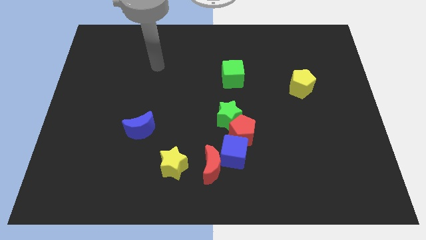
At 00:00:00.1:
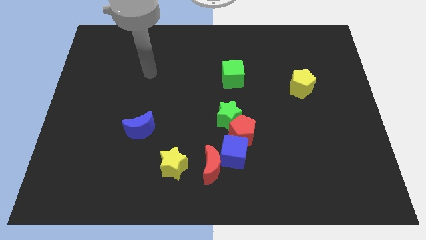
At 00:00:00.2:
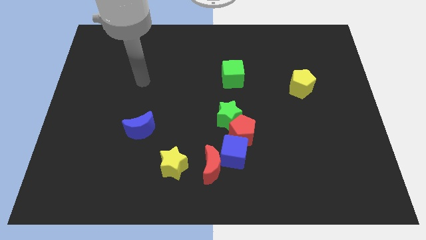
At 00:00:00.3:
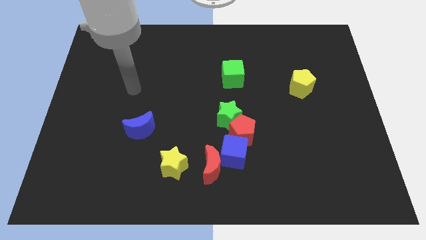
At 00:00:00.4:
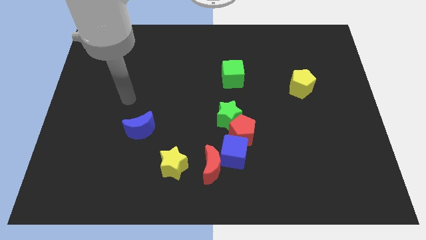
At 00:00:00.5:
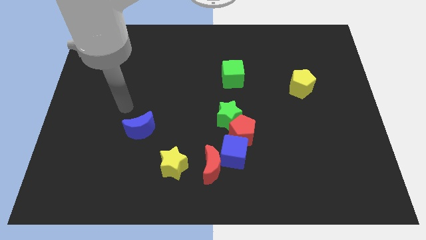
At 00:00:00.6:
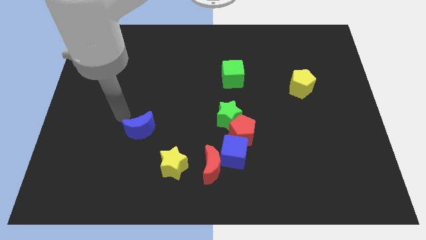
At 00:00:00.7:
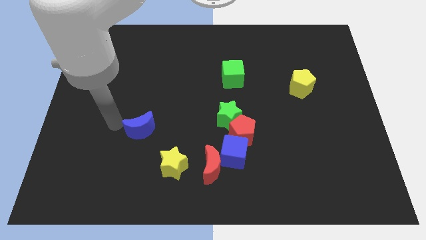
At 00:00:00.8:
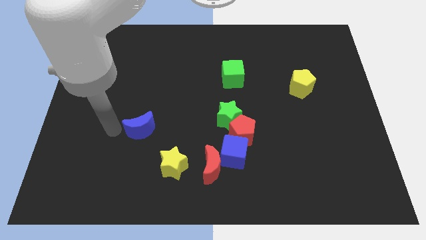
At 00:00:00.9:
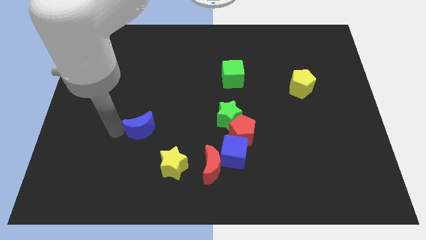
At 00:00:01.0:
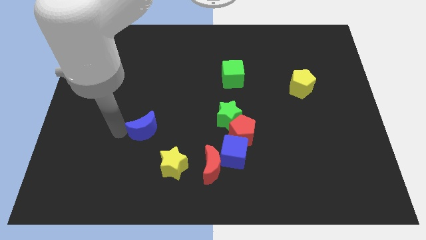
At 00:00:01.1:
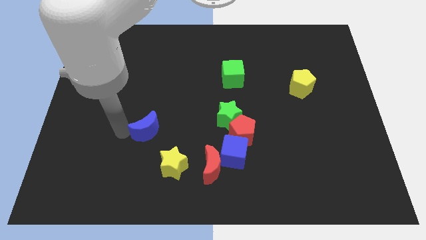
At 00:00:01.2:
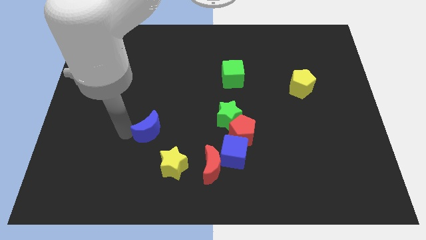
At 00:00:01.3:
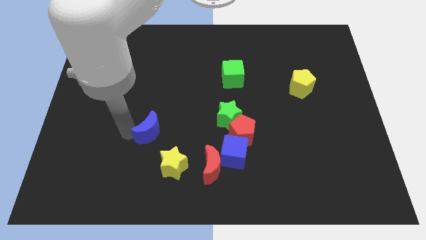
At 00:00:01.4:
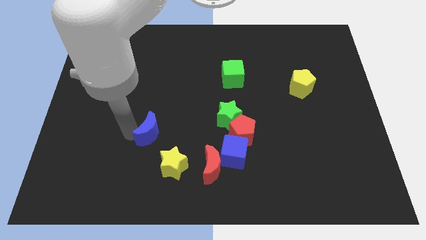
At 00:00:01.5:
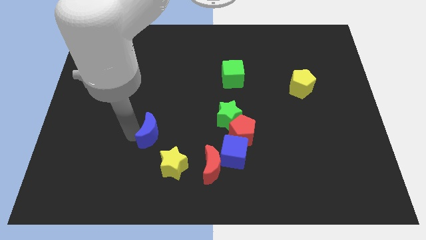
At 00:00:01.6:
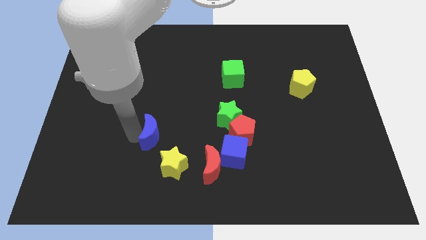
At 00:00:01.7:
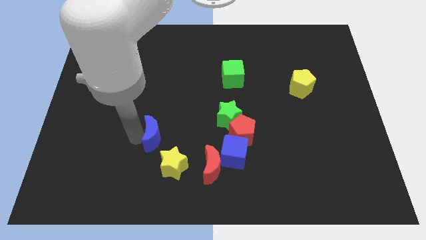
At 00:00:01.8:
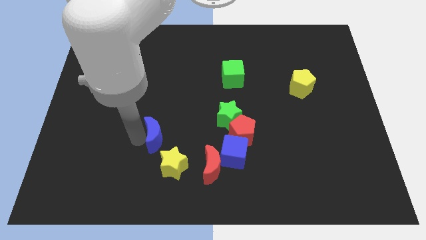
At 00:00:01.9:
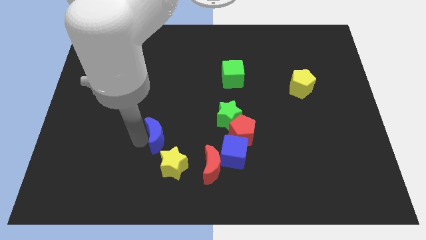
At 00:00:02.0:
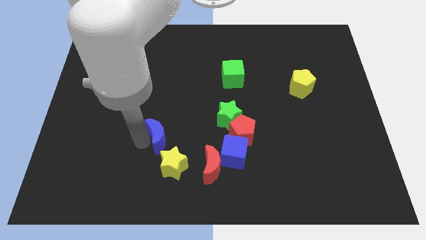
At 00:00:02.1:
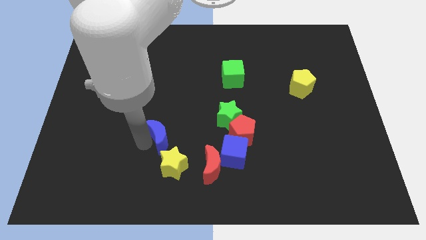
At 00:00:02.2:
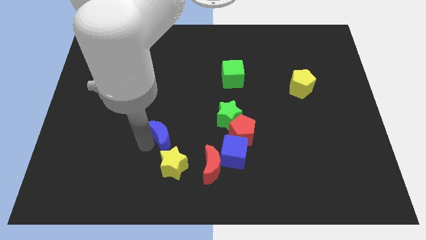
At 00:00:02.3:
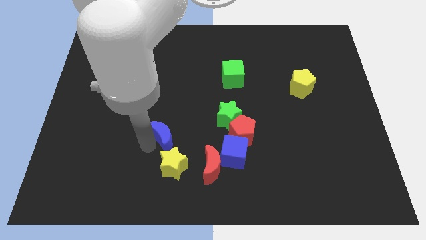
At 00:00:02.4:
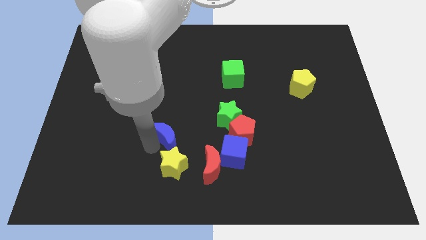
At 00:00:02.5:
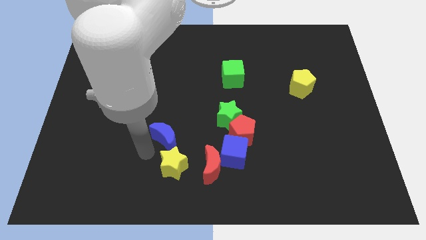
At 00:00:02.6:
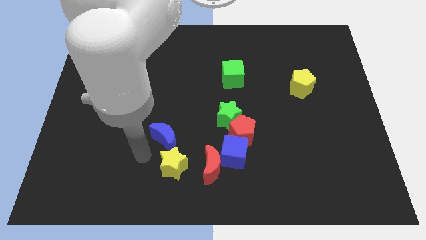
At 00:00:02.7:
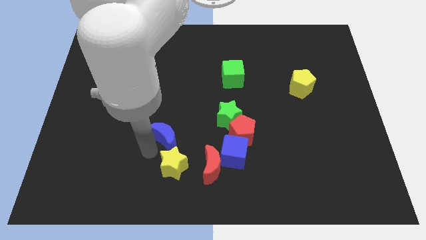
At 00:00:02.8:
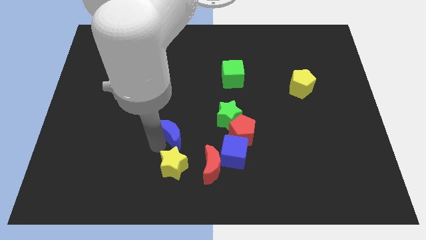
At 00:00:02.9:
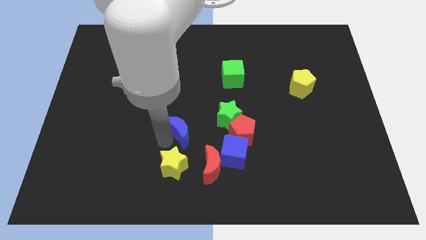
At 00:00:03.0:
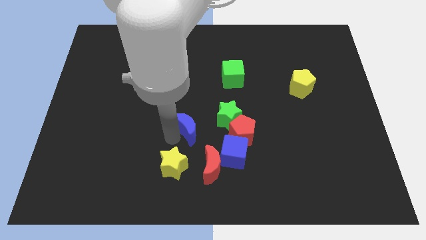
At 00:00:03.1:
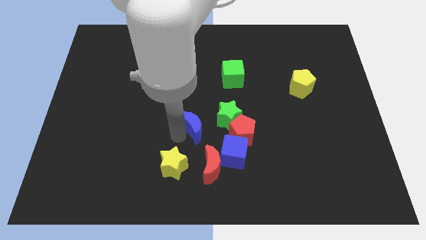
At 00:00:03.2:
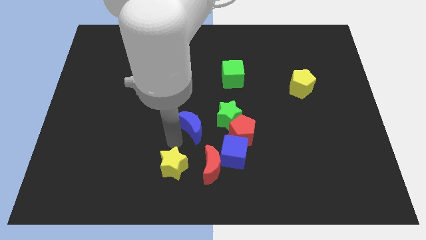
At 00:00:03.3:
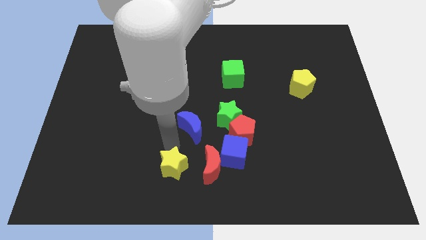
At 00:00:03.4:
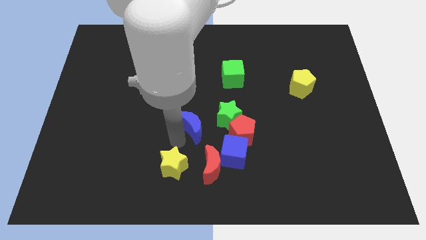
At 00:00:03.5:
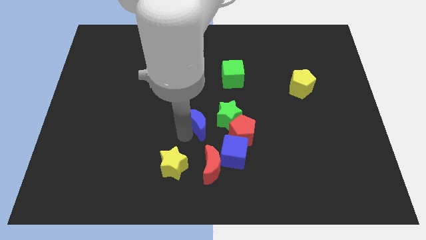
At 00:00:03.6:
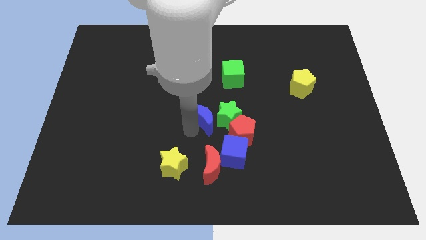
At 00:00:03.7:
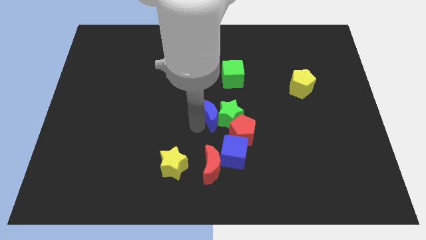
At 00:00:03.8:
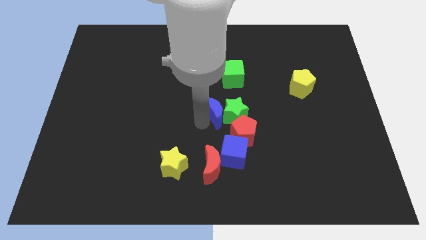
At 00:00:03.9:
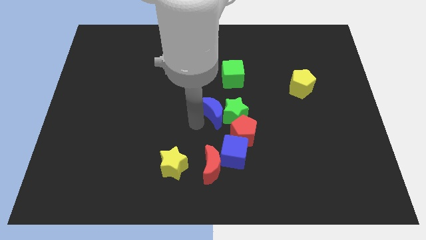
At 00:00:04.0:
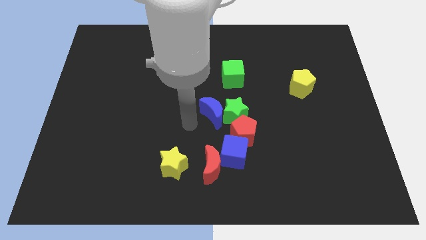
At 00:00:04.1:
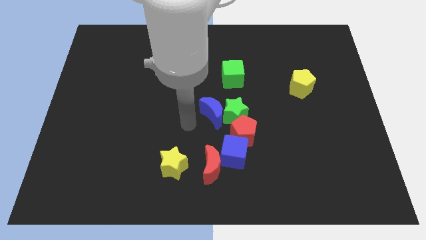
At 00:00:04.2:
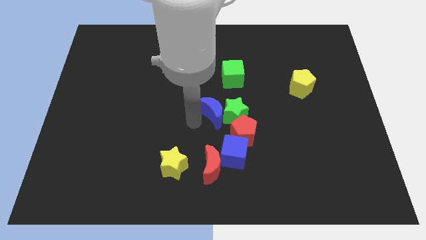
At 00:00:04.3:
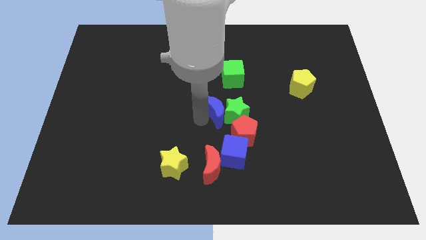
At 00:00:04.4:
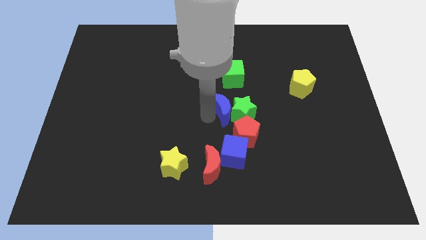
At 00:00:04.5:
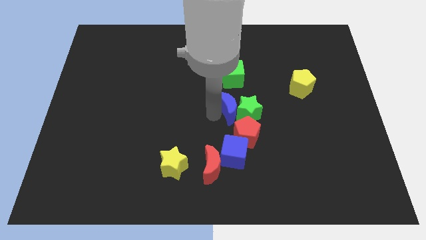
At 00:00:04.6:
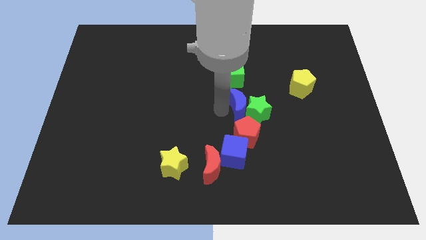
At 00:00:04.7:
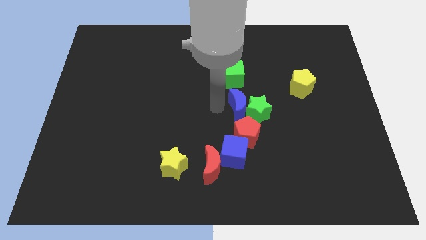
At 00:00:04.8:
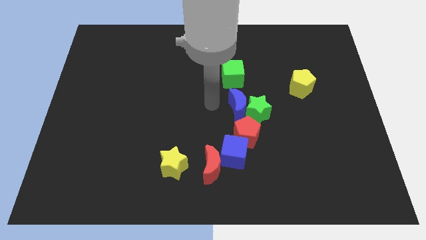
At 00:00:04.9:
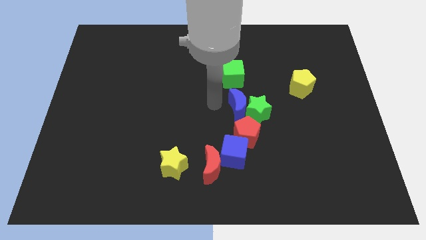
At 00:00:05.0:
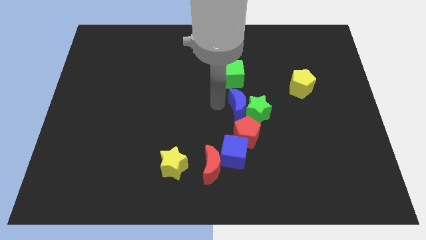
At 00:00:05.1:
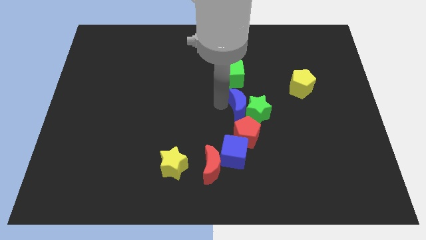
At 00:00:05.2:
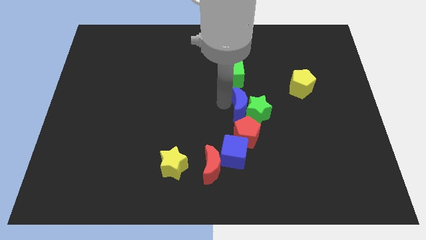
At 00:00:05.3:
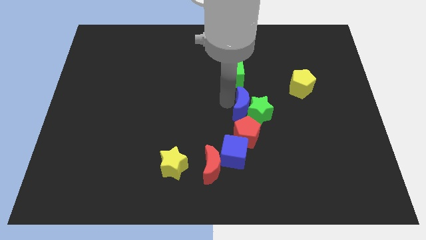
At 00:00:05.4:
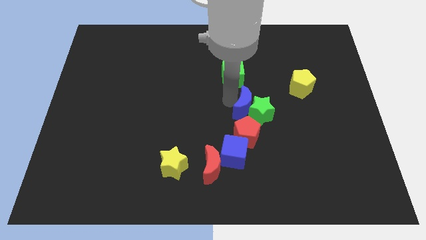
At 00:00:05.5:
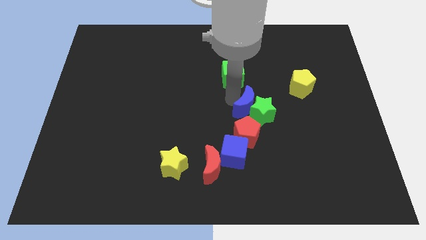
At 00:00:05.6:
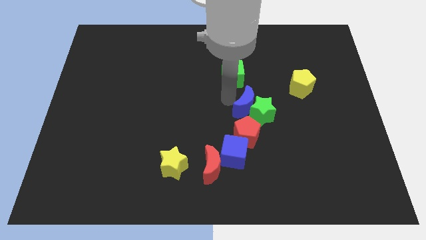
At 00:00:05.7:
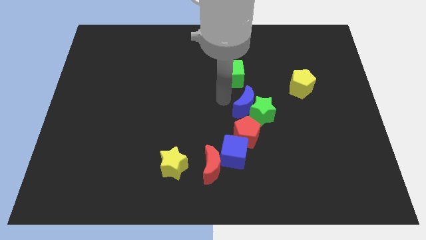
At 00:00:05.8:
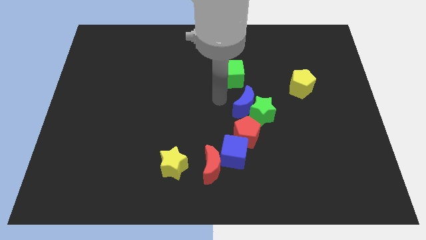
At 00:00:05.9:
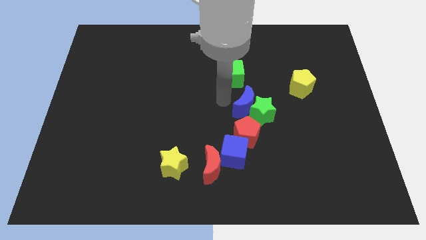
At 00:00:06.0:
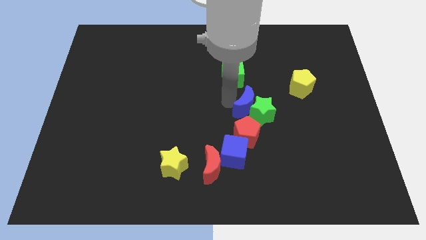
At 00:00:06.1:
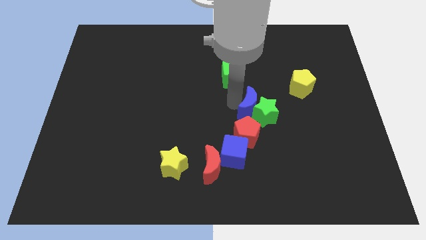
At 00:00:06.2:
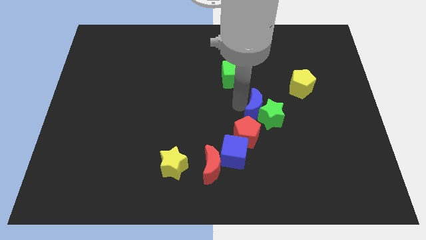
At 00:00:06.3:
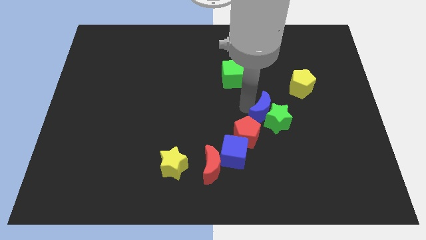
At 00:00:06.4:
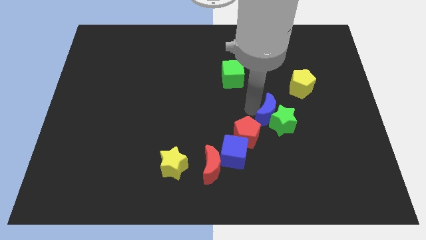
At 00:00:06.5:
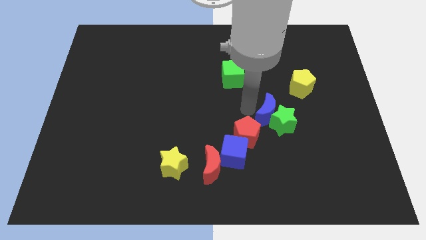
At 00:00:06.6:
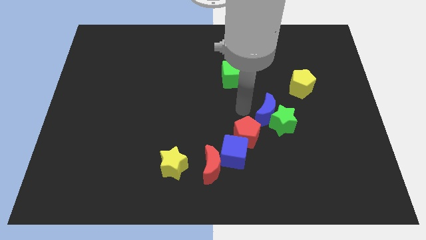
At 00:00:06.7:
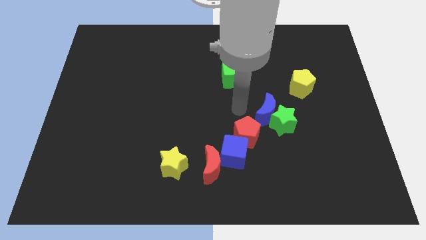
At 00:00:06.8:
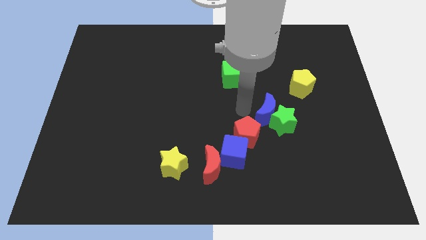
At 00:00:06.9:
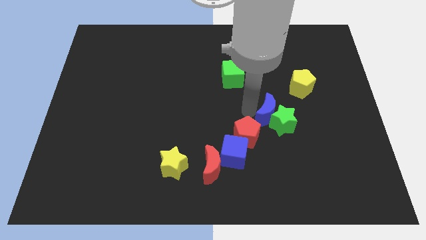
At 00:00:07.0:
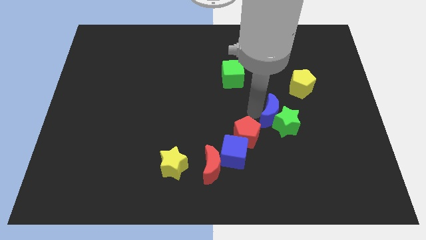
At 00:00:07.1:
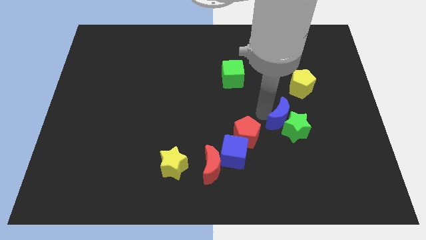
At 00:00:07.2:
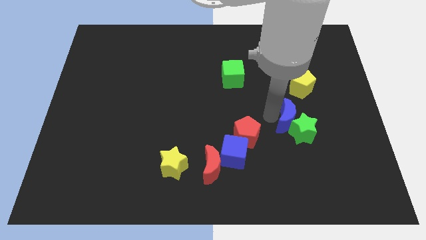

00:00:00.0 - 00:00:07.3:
move the blue moon to the bottom of the yellow pentagon

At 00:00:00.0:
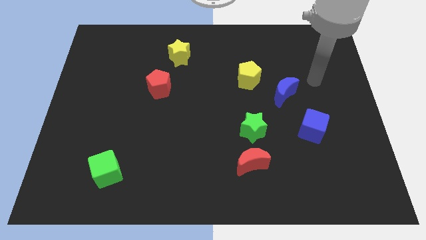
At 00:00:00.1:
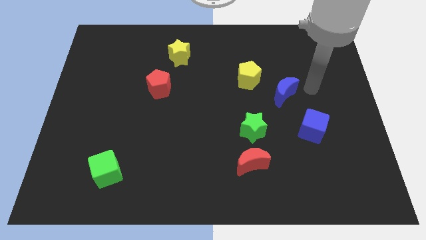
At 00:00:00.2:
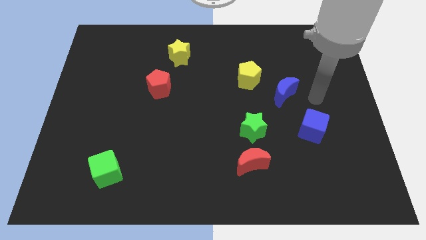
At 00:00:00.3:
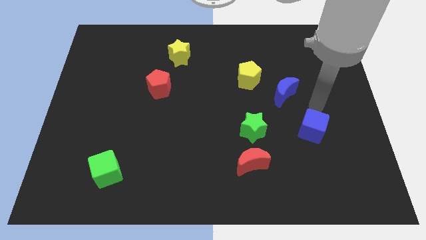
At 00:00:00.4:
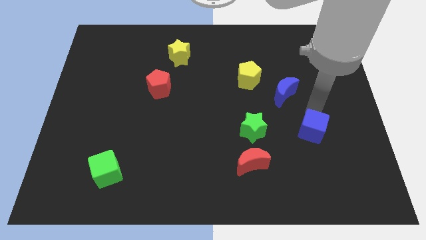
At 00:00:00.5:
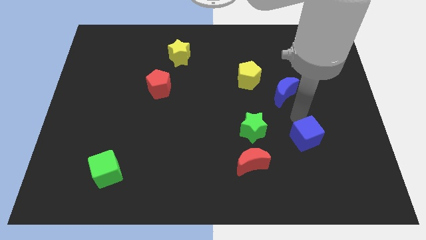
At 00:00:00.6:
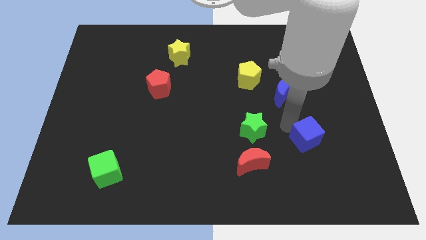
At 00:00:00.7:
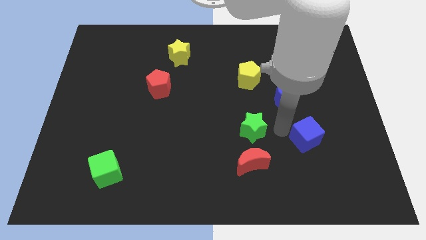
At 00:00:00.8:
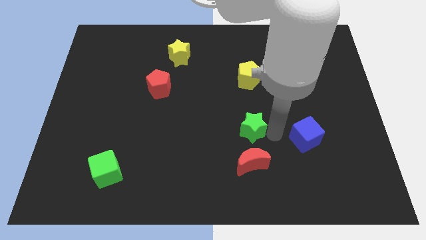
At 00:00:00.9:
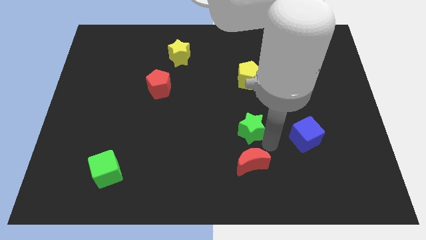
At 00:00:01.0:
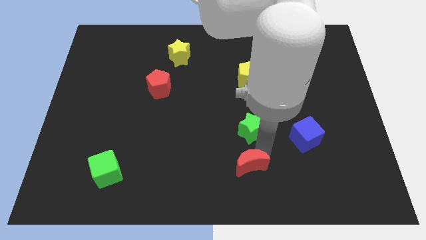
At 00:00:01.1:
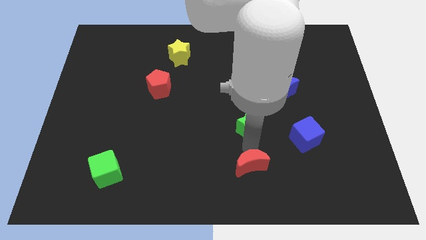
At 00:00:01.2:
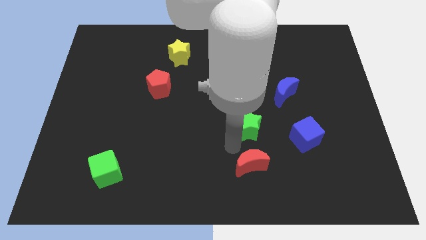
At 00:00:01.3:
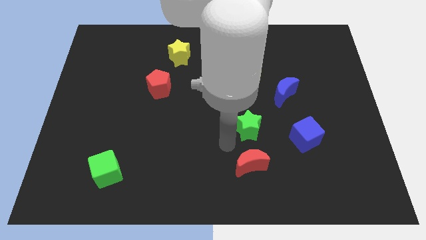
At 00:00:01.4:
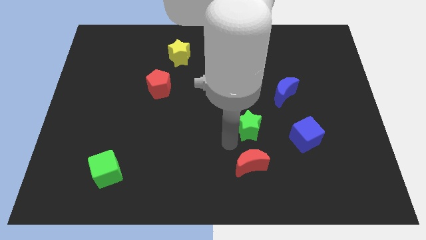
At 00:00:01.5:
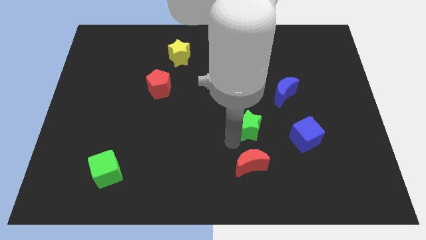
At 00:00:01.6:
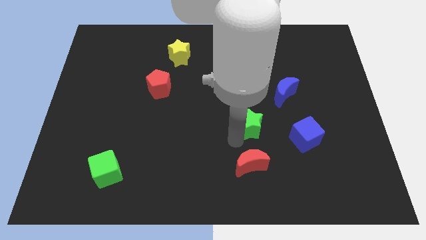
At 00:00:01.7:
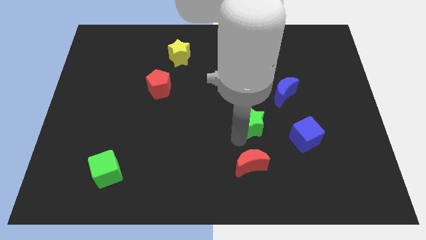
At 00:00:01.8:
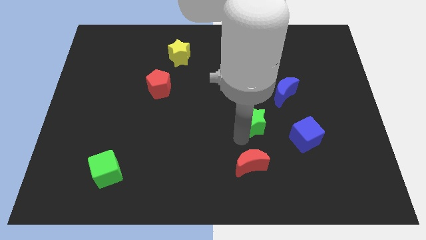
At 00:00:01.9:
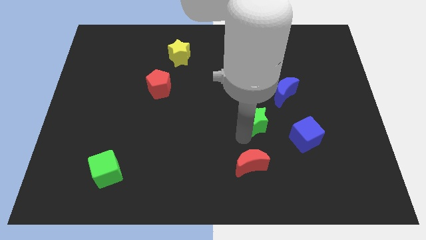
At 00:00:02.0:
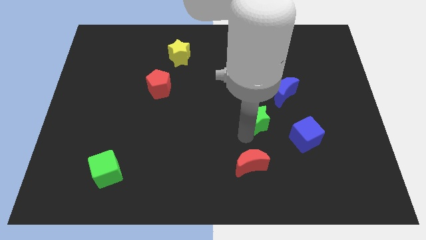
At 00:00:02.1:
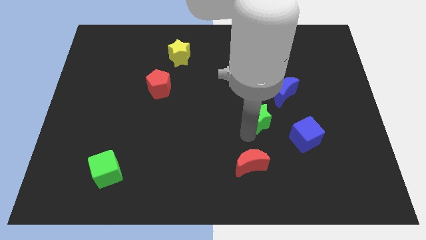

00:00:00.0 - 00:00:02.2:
slide the green star to the top left side of the blue cube
